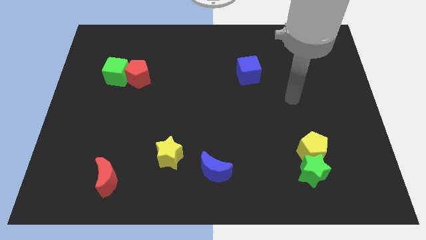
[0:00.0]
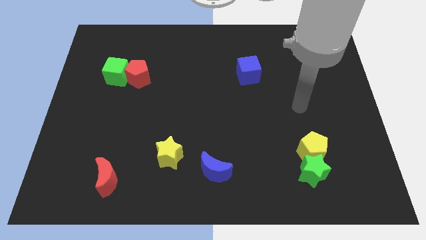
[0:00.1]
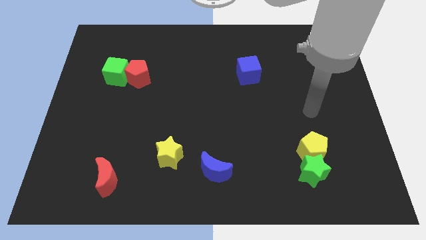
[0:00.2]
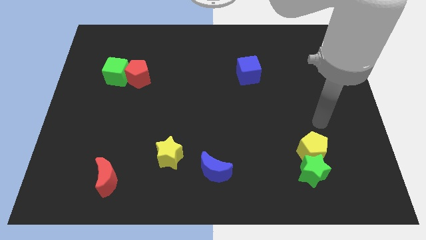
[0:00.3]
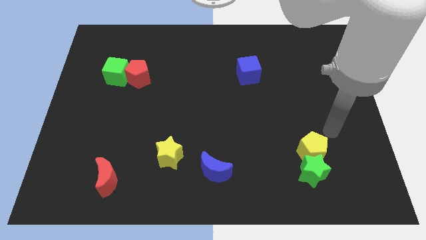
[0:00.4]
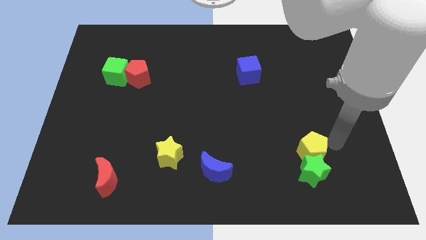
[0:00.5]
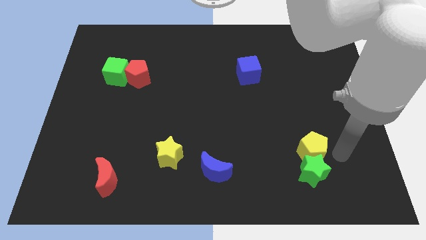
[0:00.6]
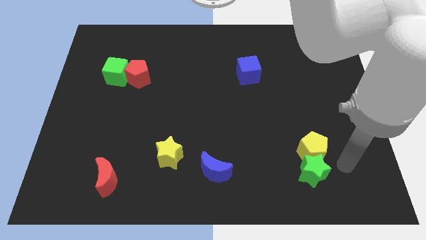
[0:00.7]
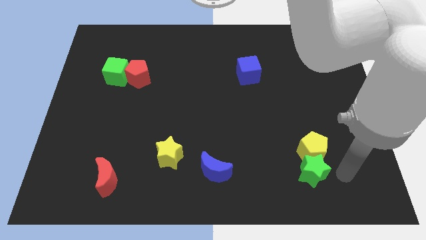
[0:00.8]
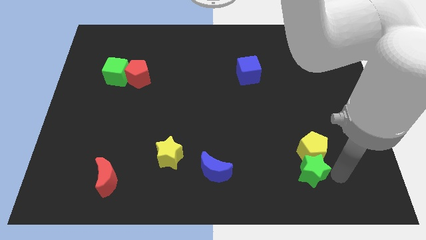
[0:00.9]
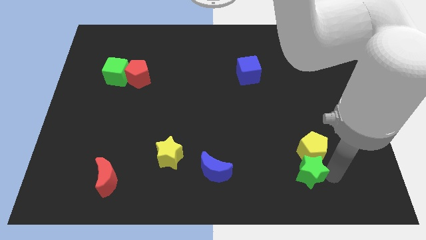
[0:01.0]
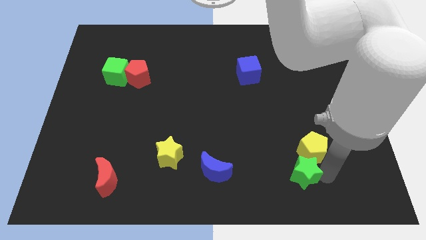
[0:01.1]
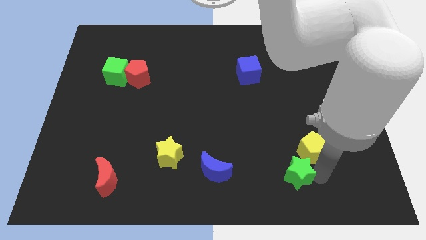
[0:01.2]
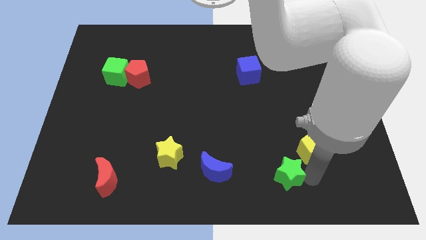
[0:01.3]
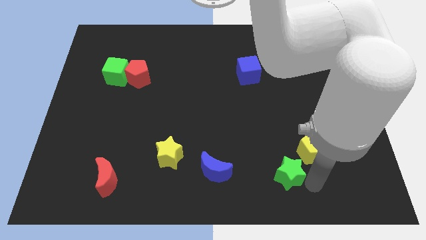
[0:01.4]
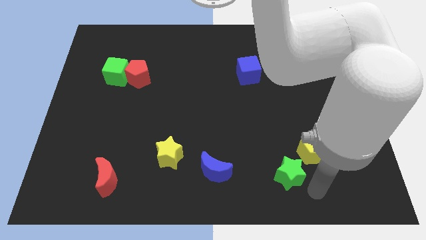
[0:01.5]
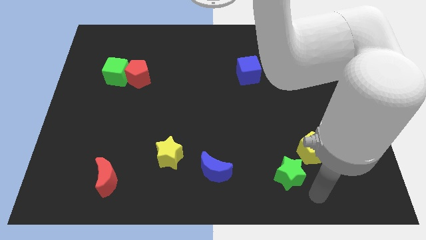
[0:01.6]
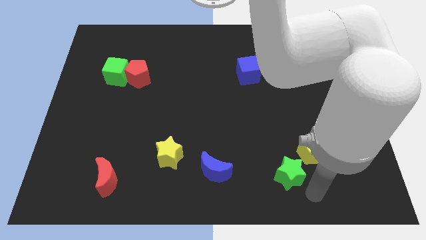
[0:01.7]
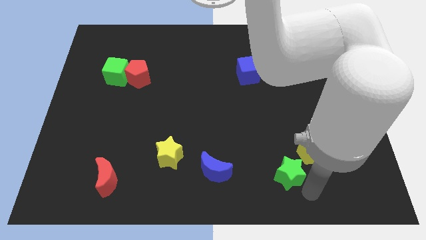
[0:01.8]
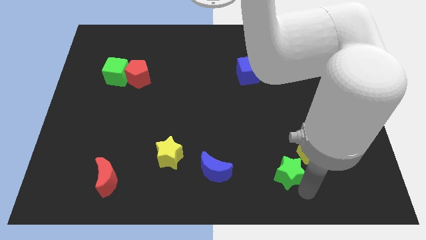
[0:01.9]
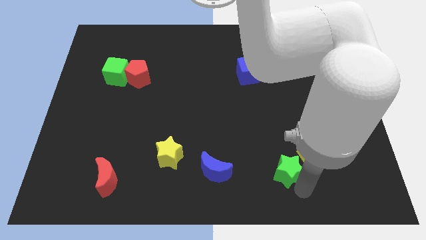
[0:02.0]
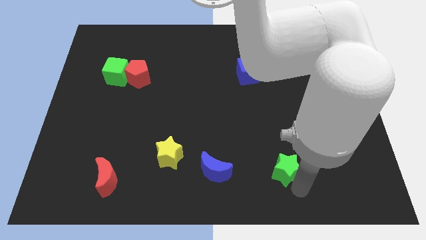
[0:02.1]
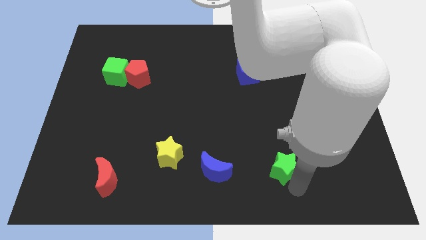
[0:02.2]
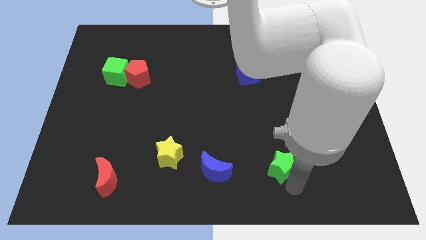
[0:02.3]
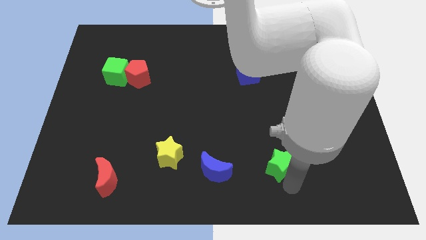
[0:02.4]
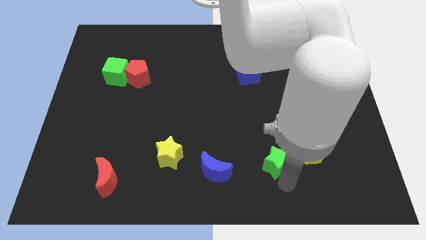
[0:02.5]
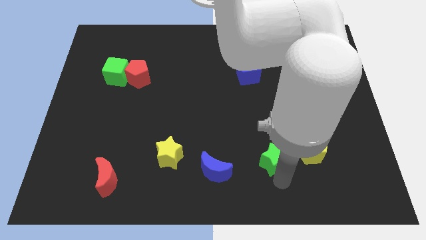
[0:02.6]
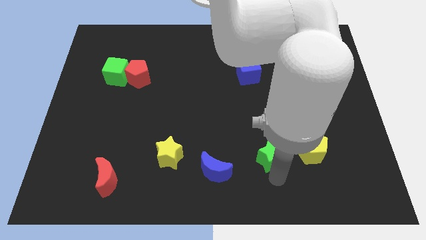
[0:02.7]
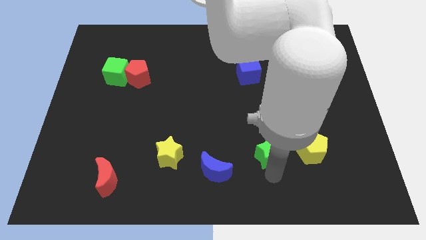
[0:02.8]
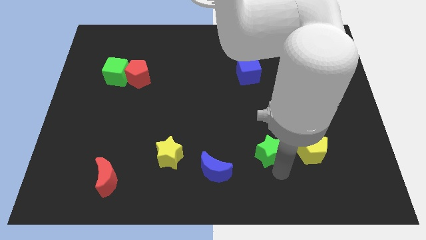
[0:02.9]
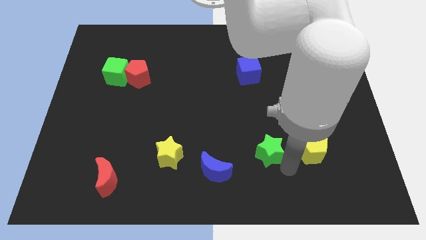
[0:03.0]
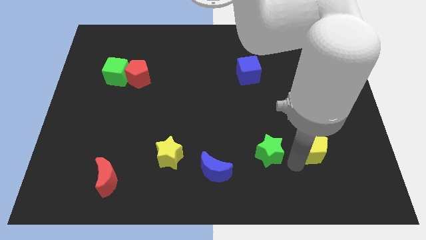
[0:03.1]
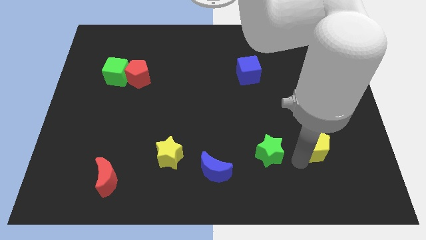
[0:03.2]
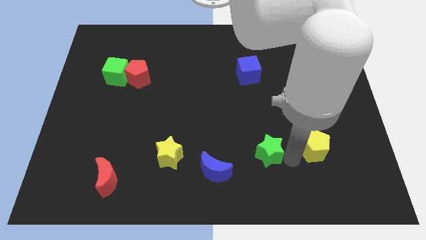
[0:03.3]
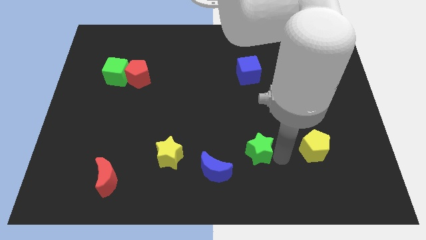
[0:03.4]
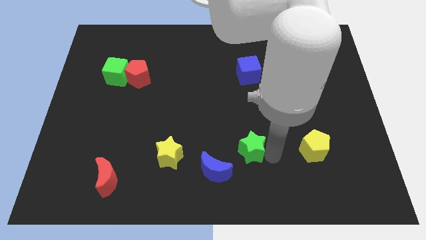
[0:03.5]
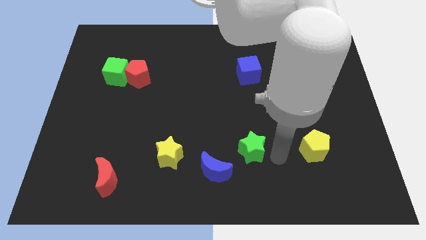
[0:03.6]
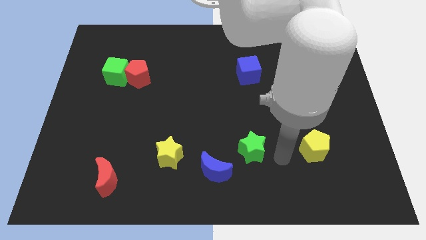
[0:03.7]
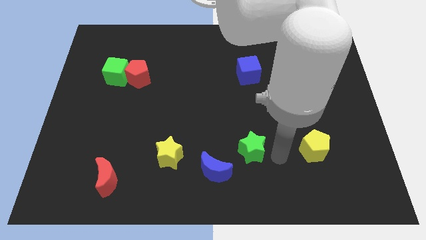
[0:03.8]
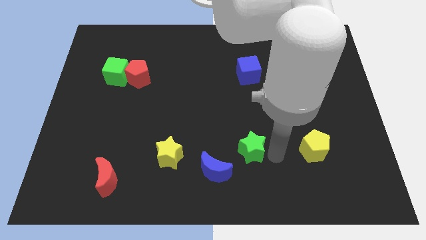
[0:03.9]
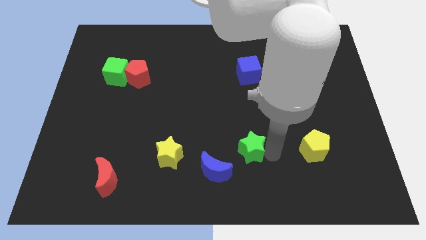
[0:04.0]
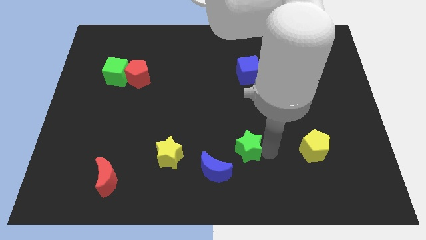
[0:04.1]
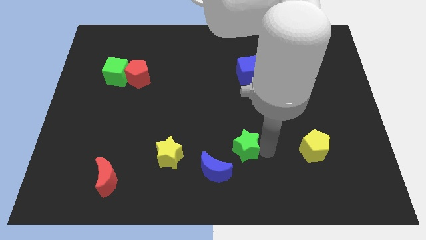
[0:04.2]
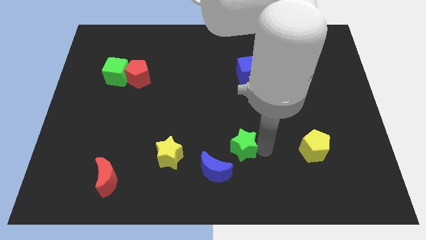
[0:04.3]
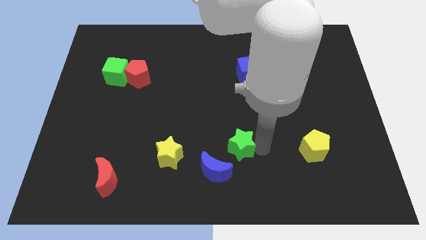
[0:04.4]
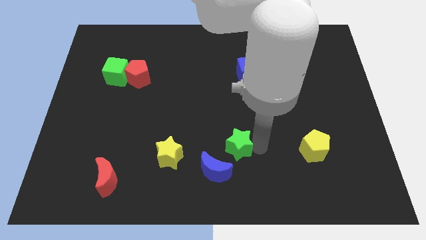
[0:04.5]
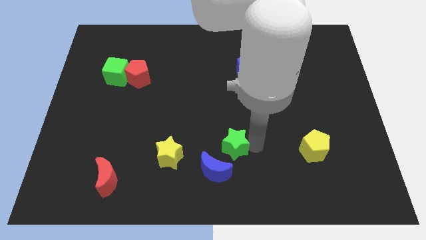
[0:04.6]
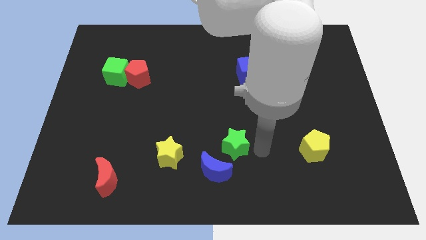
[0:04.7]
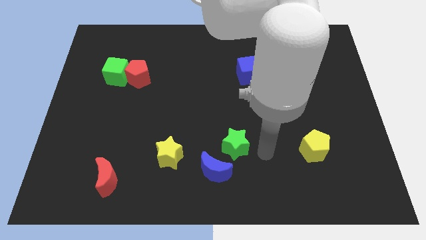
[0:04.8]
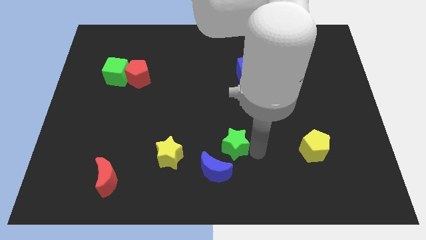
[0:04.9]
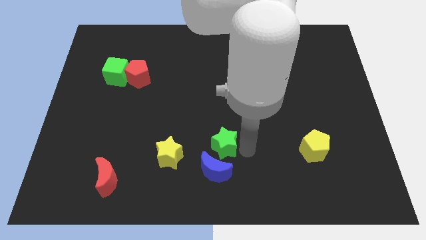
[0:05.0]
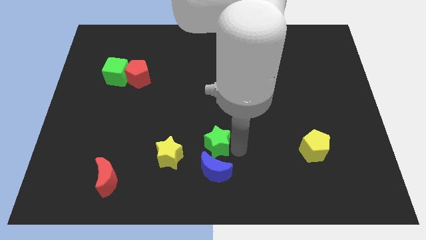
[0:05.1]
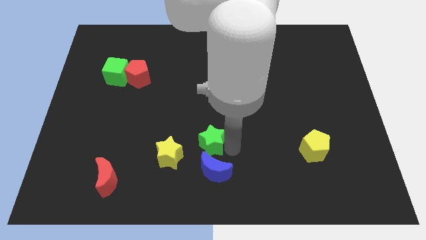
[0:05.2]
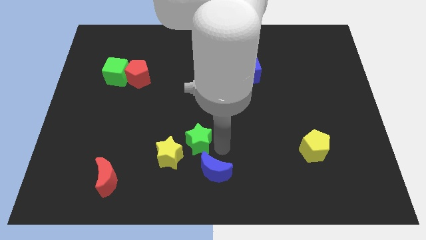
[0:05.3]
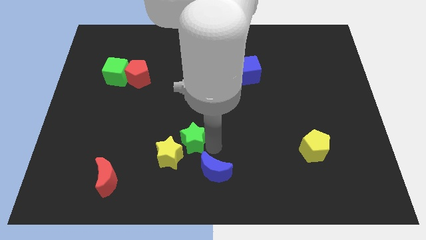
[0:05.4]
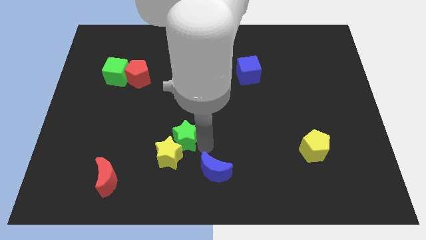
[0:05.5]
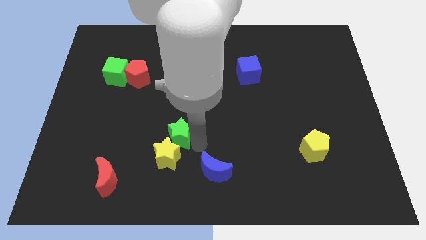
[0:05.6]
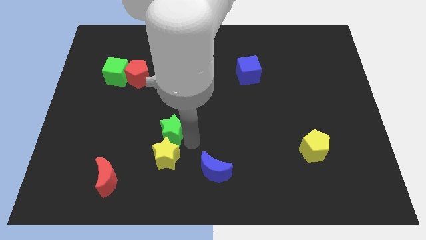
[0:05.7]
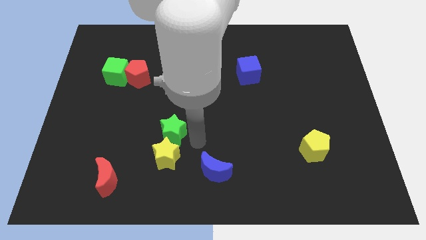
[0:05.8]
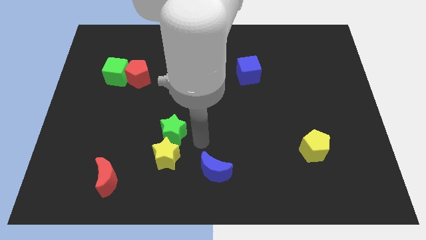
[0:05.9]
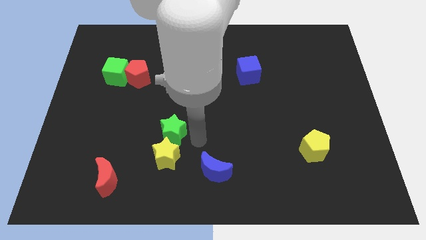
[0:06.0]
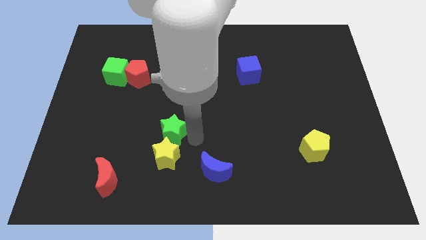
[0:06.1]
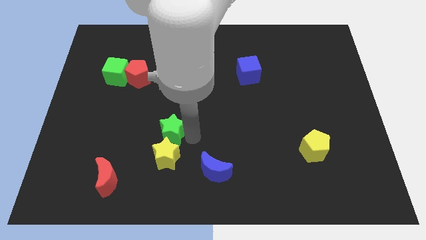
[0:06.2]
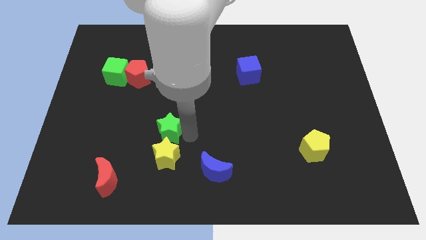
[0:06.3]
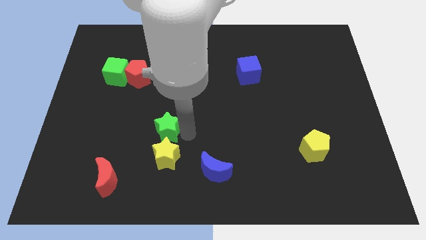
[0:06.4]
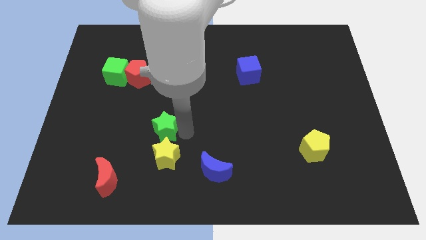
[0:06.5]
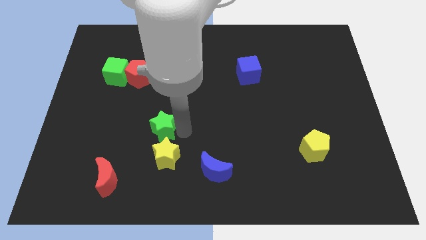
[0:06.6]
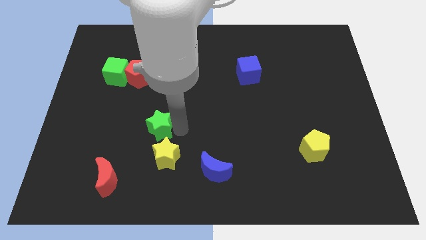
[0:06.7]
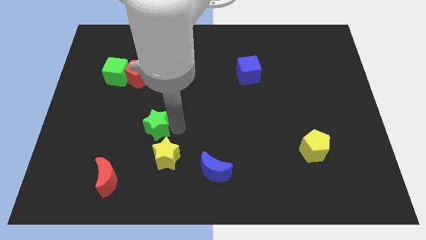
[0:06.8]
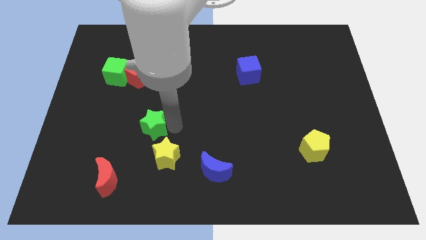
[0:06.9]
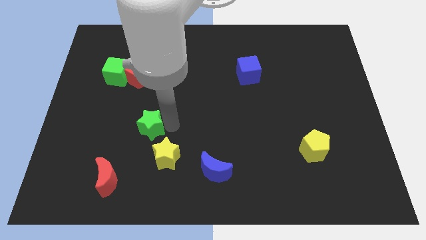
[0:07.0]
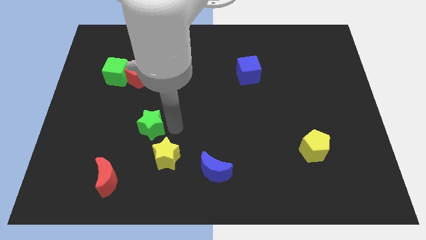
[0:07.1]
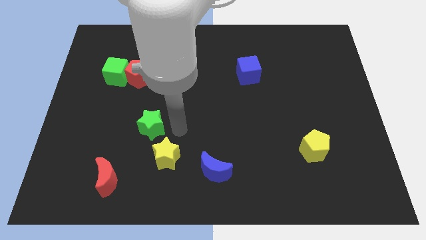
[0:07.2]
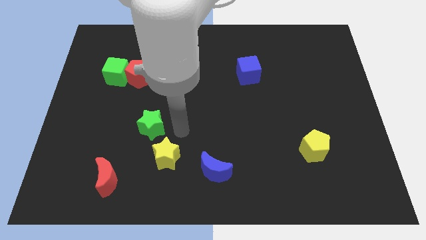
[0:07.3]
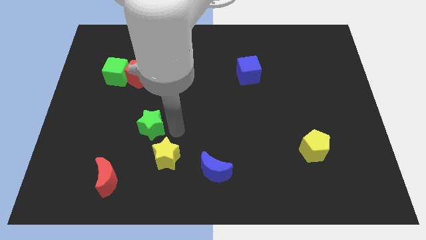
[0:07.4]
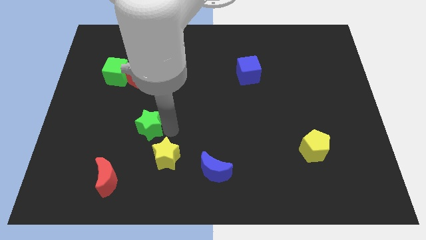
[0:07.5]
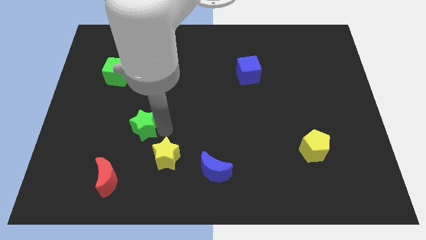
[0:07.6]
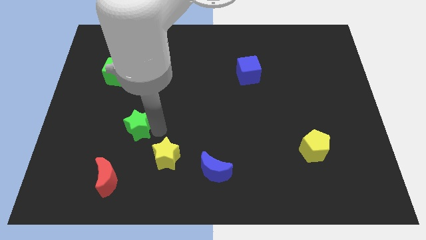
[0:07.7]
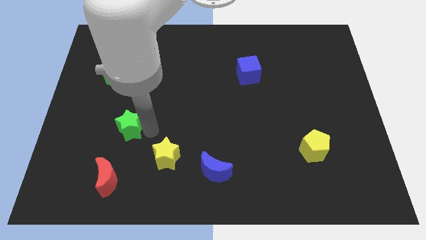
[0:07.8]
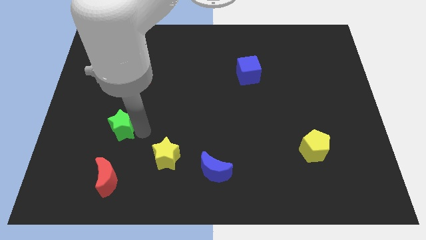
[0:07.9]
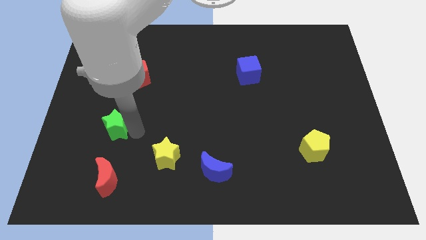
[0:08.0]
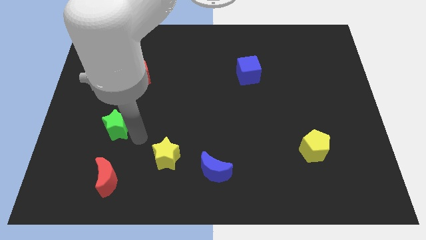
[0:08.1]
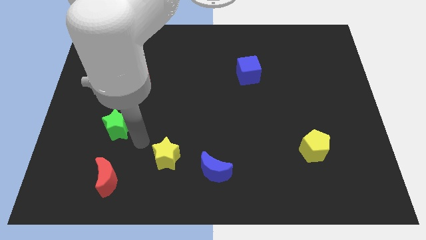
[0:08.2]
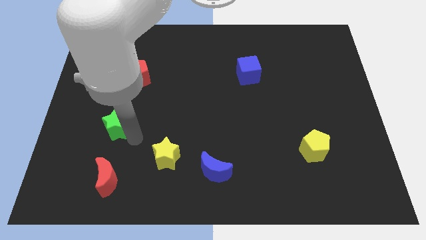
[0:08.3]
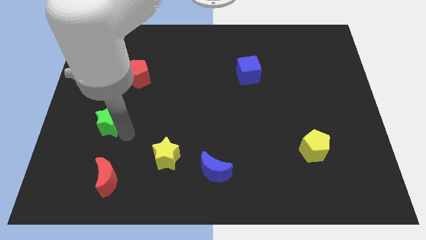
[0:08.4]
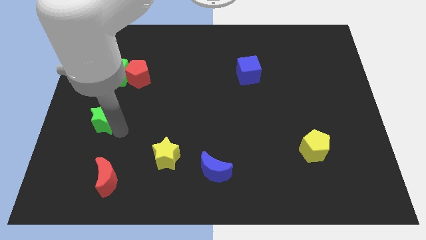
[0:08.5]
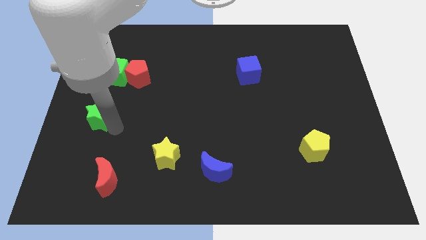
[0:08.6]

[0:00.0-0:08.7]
slide the green star to the center left
